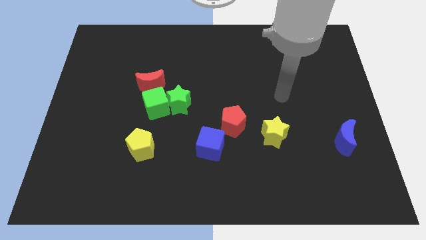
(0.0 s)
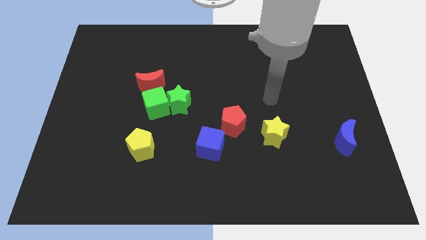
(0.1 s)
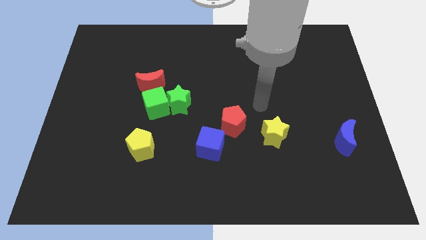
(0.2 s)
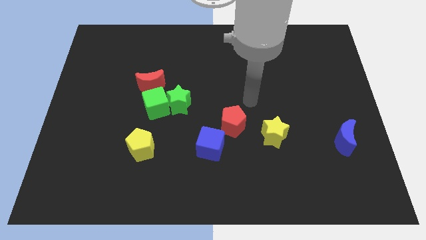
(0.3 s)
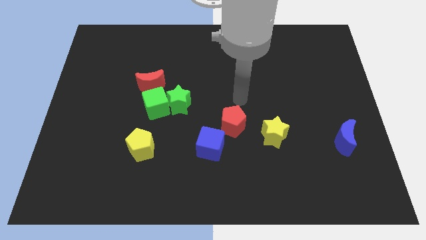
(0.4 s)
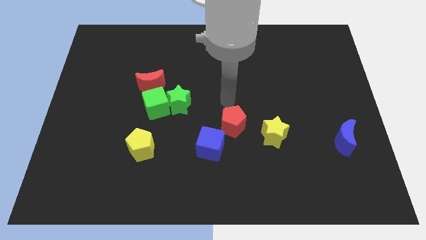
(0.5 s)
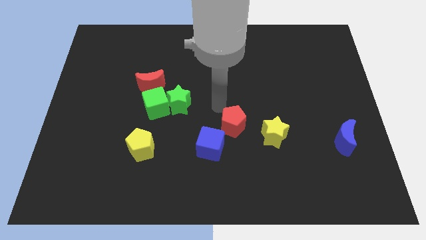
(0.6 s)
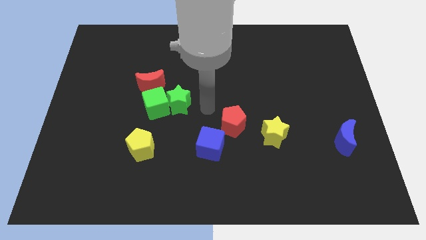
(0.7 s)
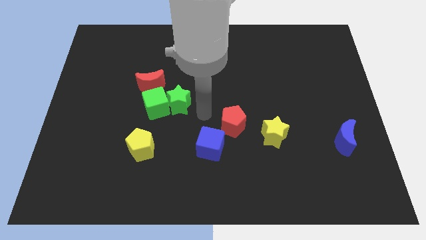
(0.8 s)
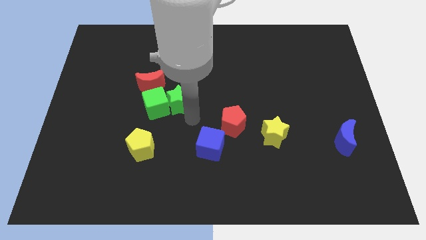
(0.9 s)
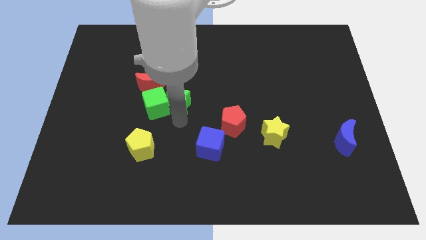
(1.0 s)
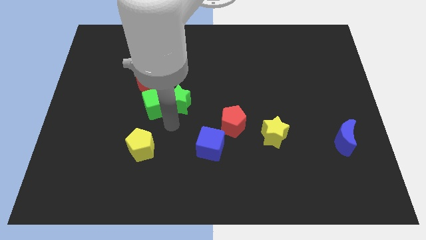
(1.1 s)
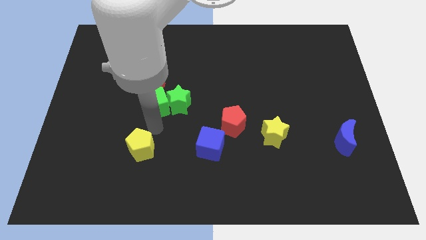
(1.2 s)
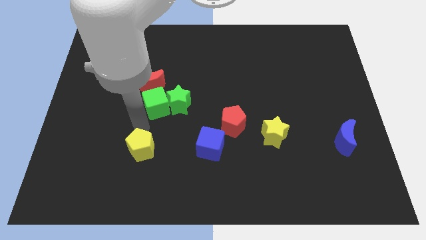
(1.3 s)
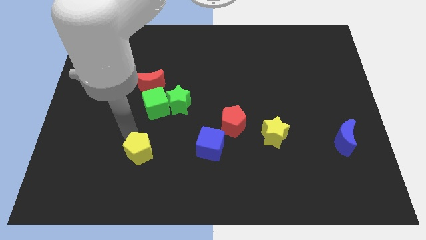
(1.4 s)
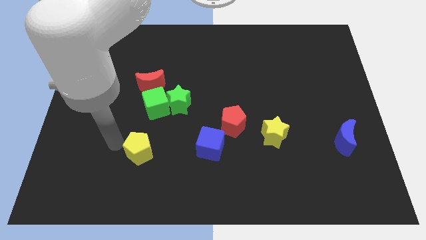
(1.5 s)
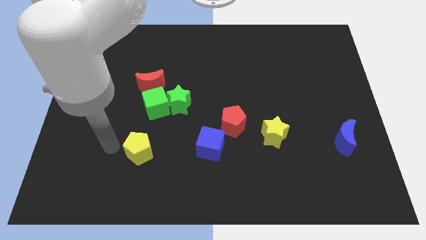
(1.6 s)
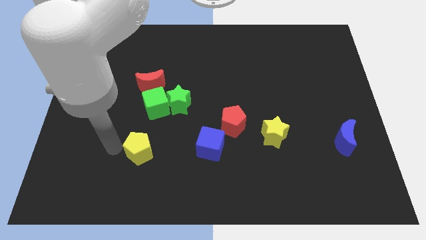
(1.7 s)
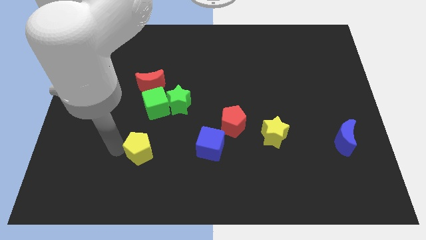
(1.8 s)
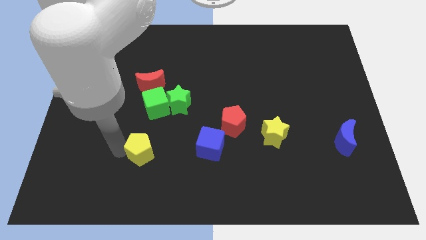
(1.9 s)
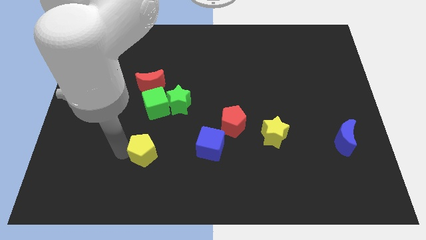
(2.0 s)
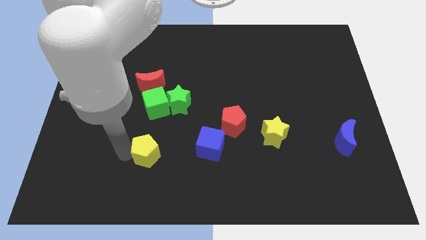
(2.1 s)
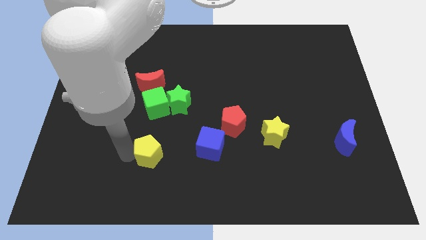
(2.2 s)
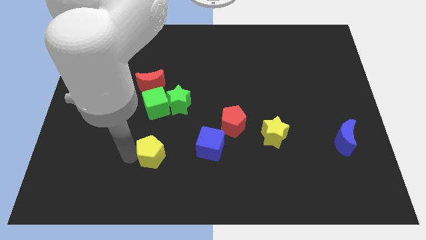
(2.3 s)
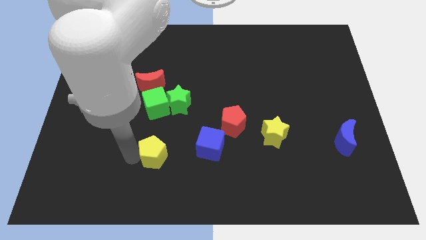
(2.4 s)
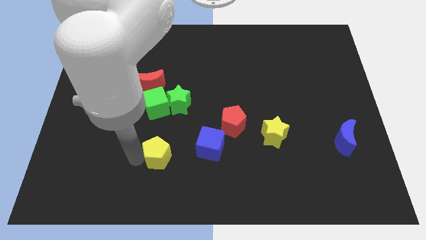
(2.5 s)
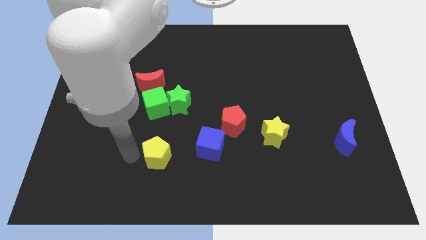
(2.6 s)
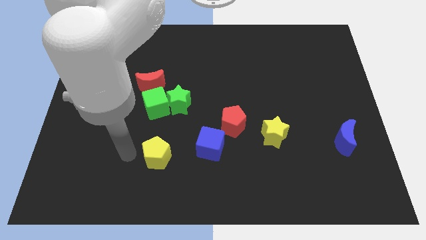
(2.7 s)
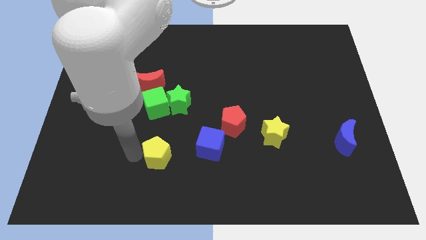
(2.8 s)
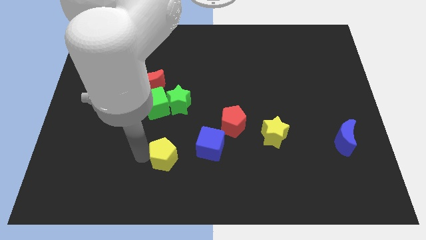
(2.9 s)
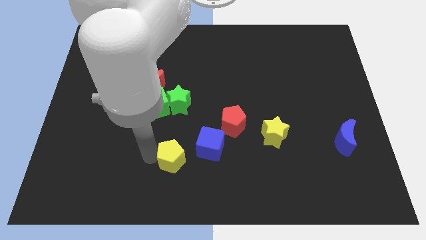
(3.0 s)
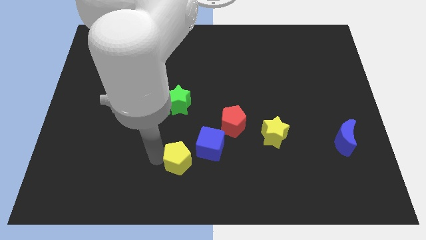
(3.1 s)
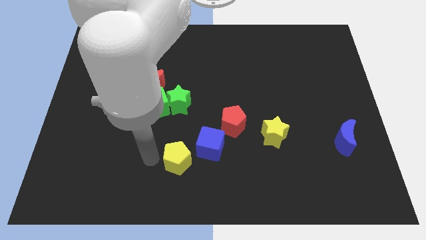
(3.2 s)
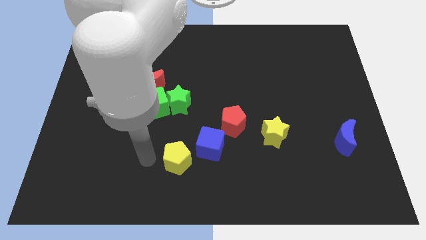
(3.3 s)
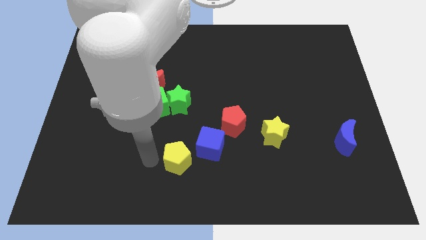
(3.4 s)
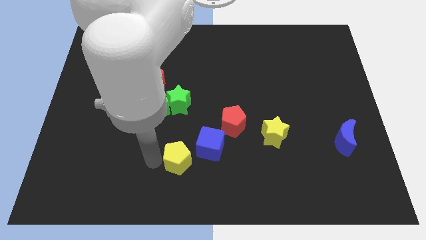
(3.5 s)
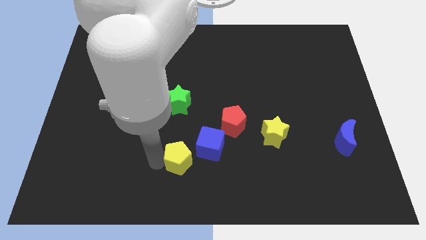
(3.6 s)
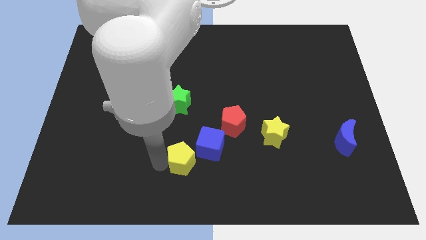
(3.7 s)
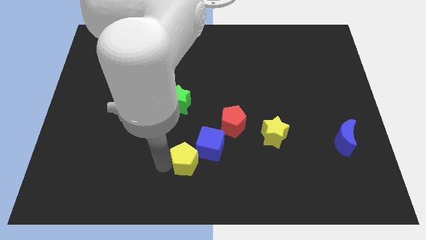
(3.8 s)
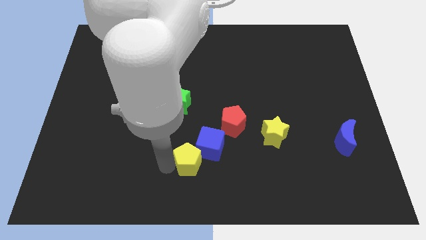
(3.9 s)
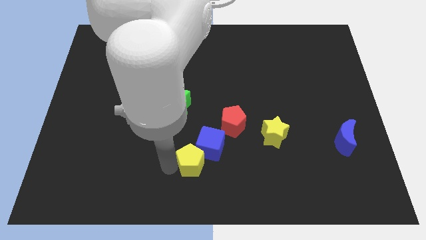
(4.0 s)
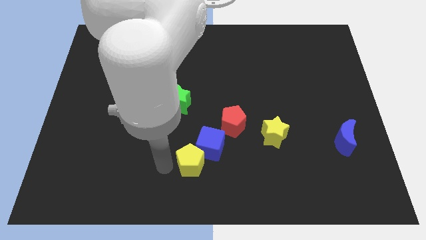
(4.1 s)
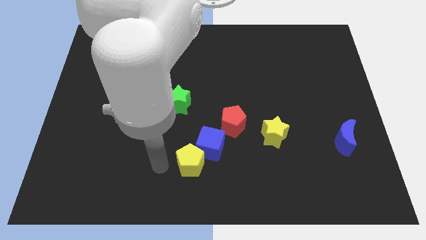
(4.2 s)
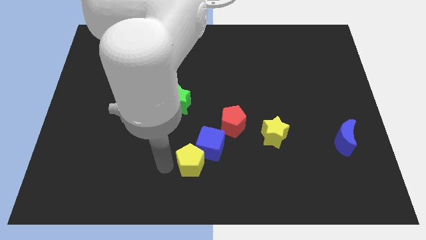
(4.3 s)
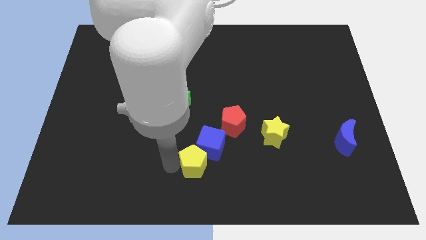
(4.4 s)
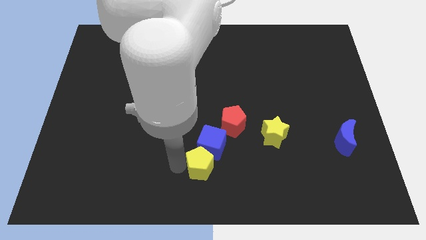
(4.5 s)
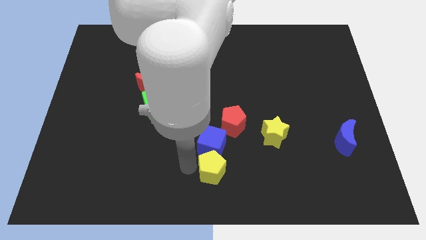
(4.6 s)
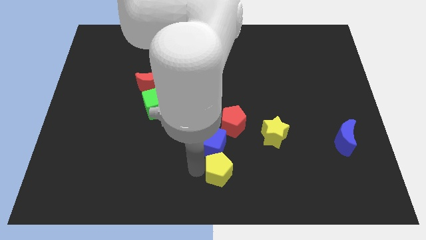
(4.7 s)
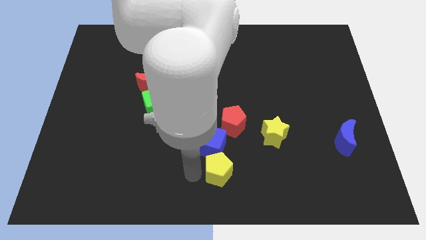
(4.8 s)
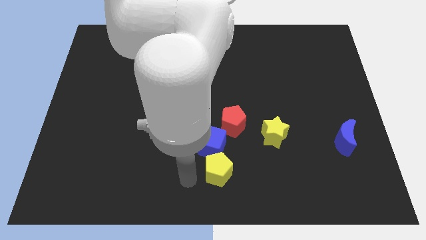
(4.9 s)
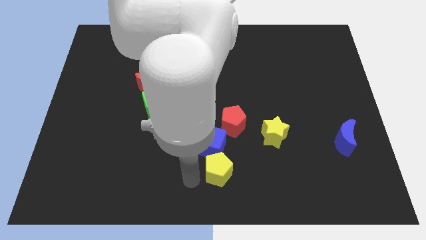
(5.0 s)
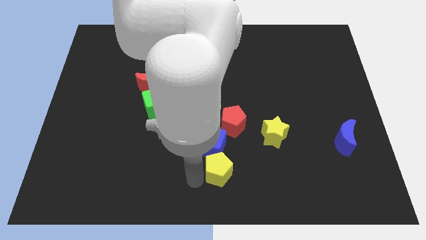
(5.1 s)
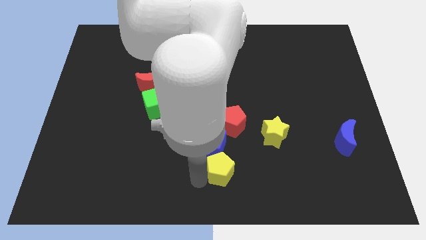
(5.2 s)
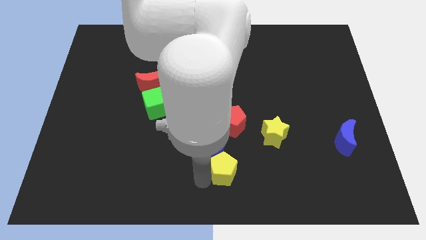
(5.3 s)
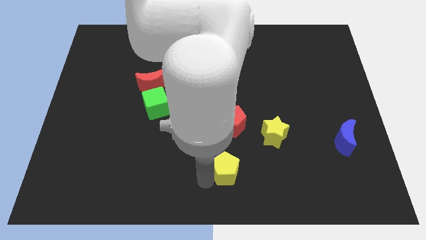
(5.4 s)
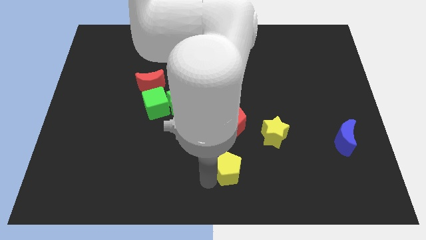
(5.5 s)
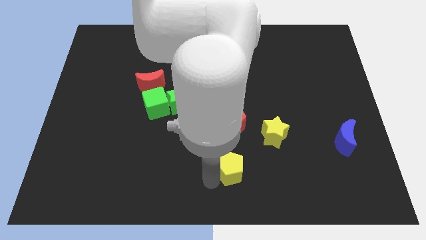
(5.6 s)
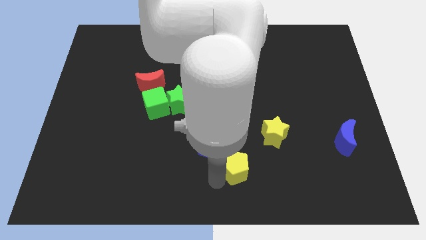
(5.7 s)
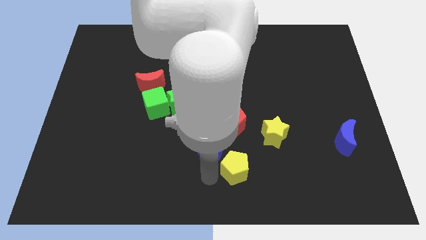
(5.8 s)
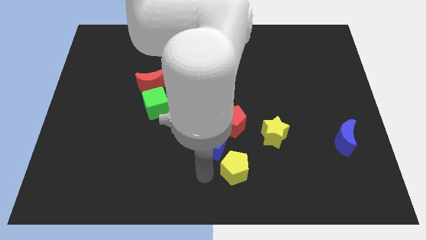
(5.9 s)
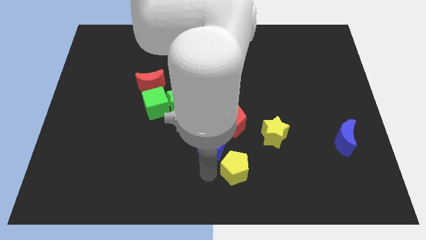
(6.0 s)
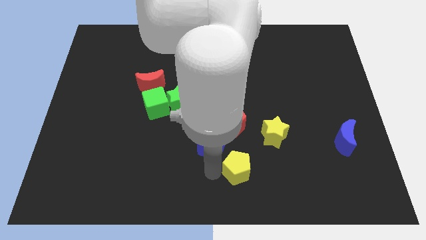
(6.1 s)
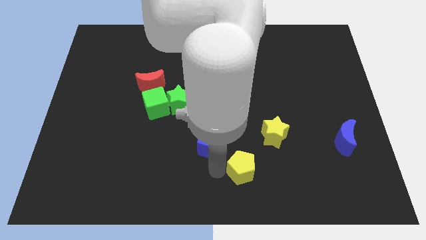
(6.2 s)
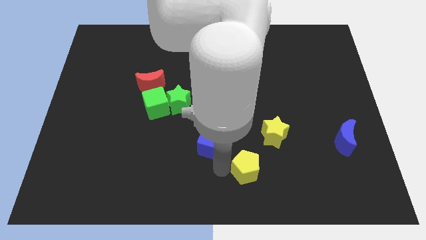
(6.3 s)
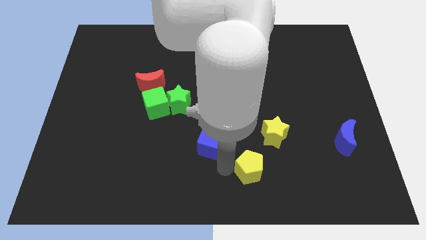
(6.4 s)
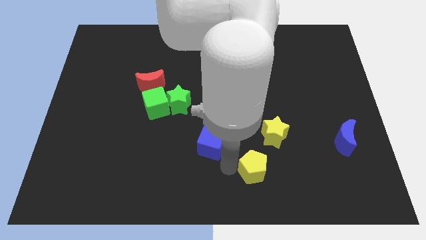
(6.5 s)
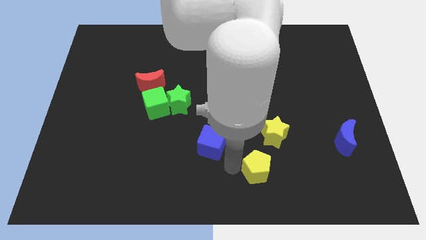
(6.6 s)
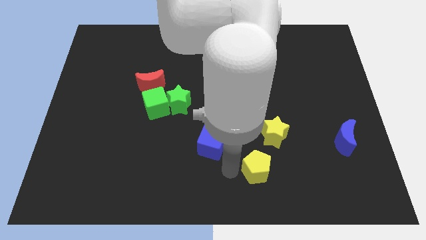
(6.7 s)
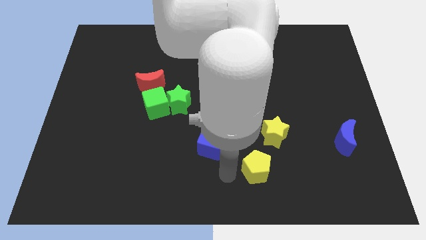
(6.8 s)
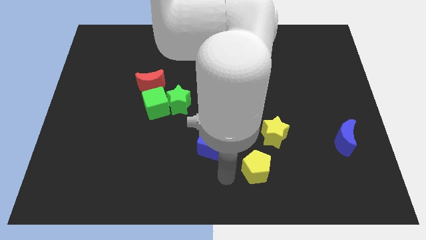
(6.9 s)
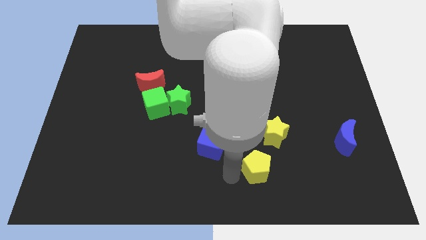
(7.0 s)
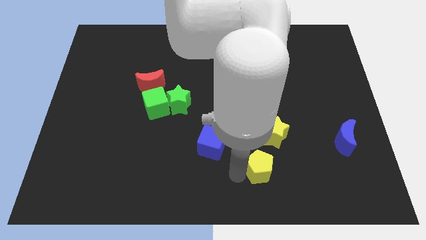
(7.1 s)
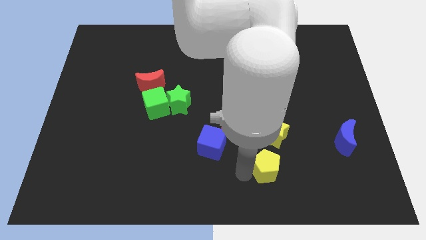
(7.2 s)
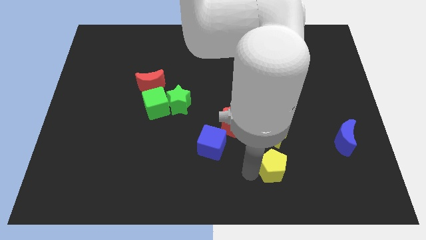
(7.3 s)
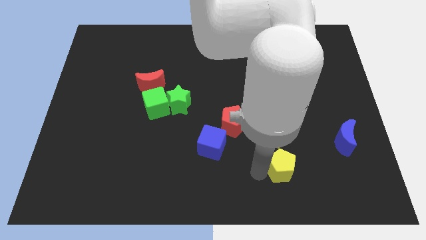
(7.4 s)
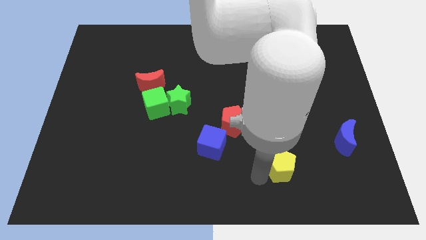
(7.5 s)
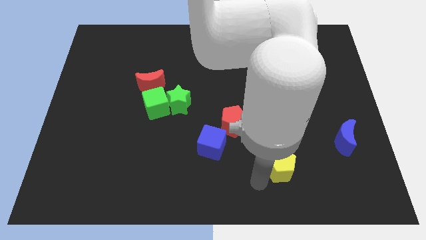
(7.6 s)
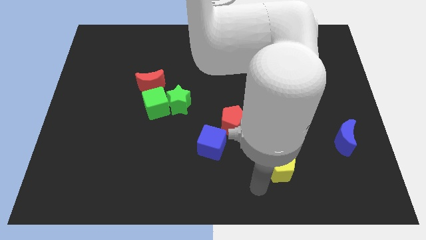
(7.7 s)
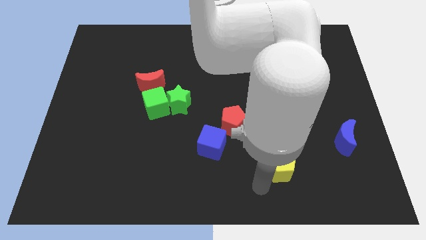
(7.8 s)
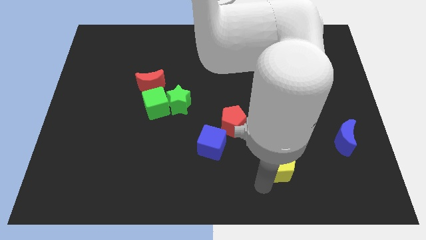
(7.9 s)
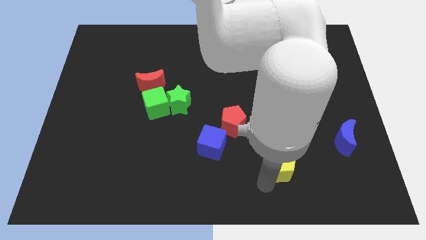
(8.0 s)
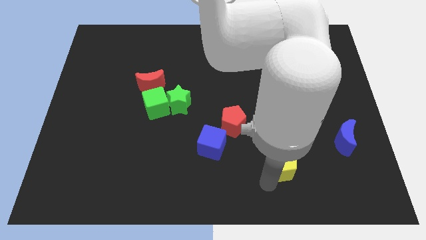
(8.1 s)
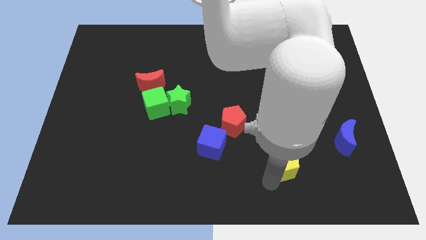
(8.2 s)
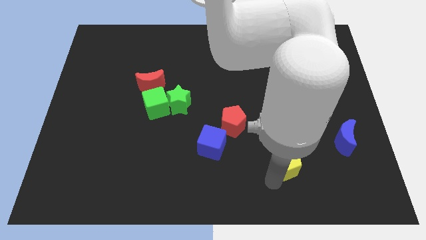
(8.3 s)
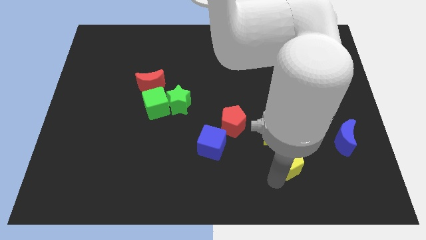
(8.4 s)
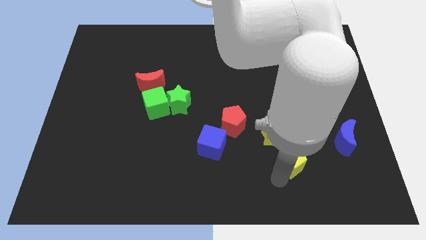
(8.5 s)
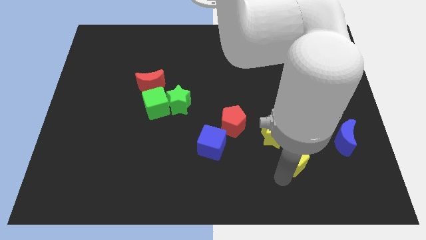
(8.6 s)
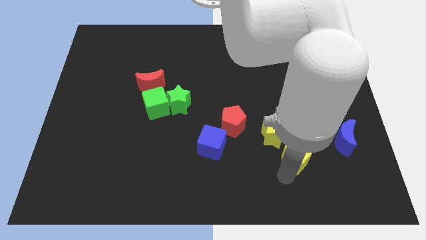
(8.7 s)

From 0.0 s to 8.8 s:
push the yellow pentagon left of the blue moon
